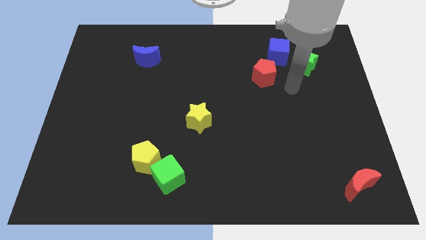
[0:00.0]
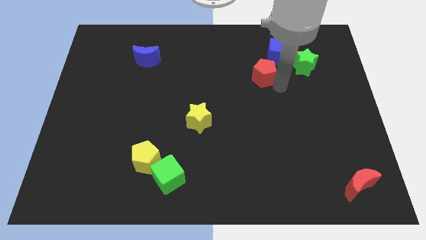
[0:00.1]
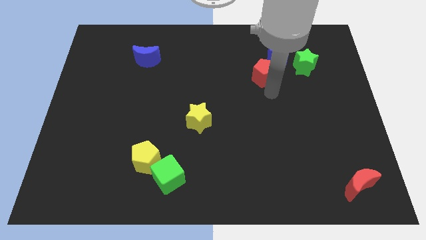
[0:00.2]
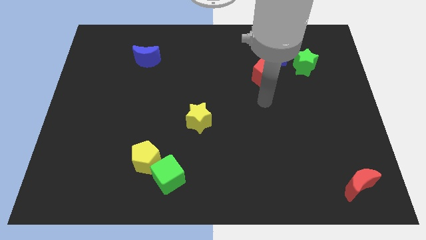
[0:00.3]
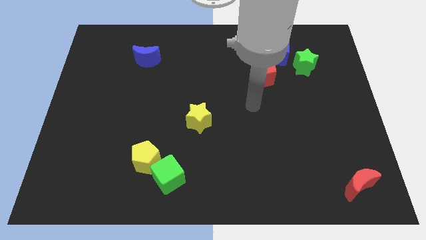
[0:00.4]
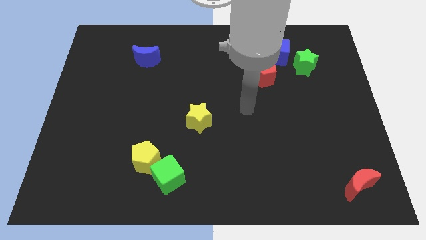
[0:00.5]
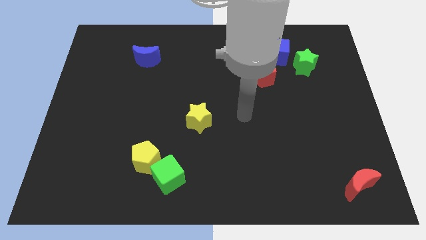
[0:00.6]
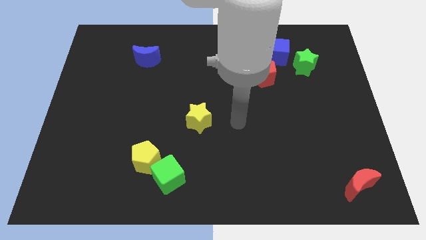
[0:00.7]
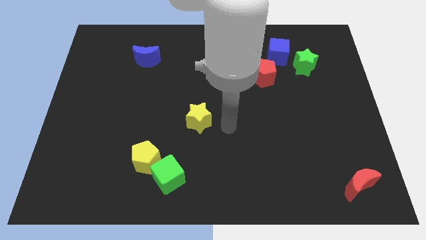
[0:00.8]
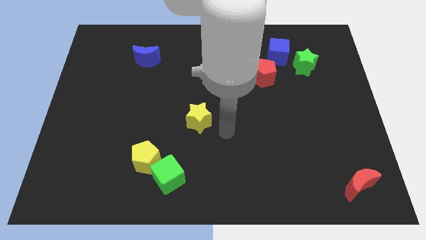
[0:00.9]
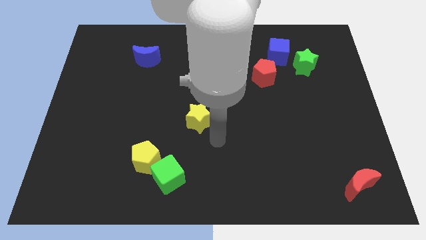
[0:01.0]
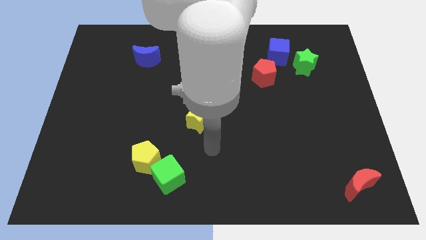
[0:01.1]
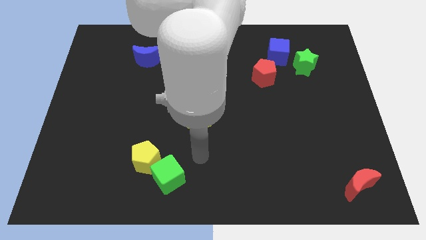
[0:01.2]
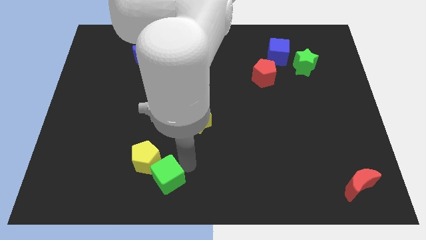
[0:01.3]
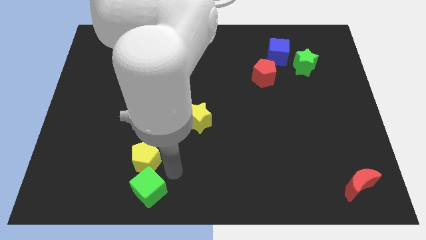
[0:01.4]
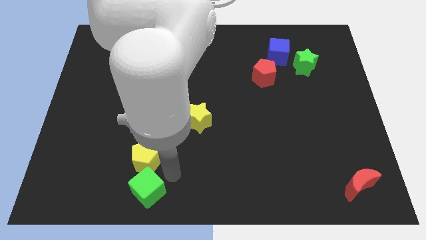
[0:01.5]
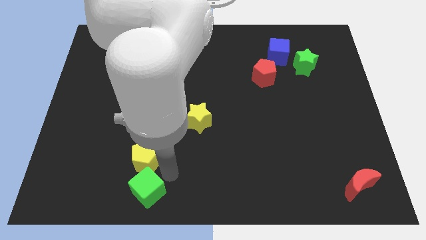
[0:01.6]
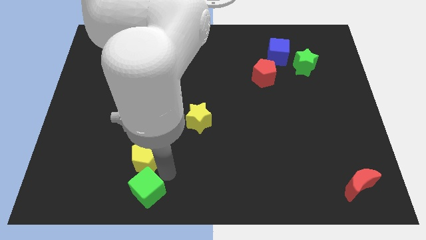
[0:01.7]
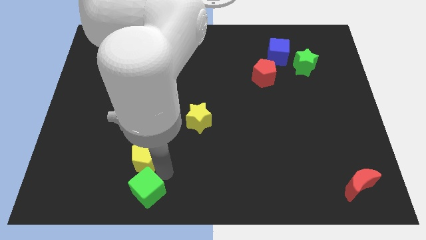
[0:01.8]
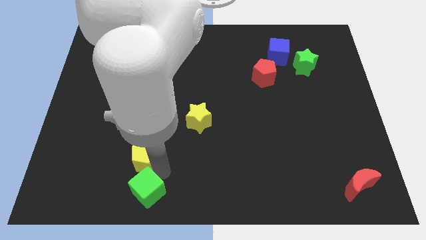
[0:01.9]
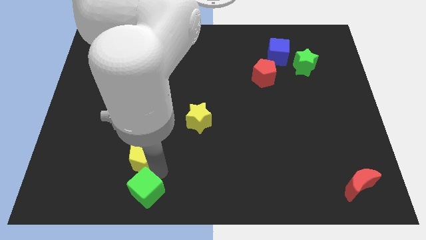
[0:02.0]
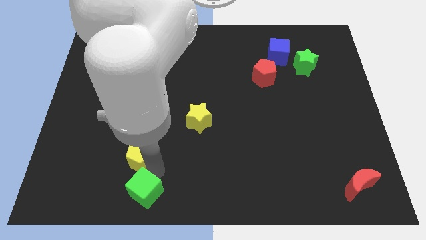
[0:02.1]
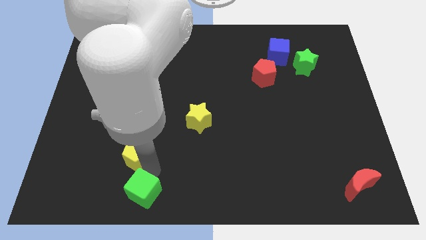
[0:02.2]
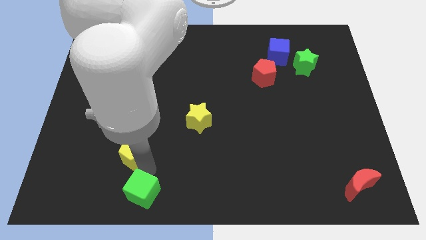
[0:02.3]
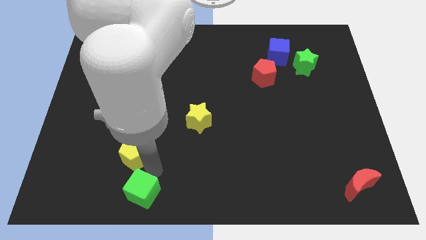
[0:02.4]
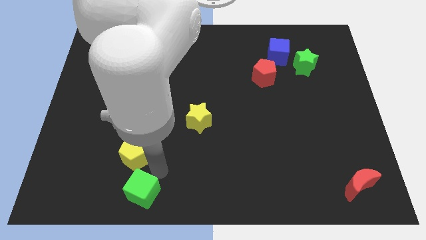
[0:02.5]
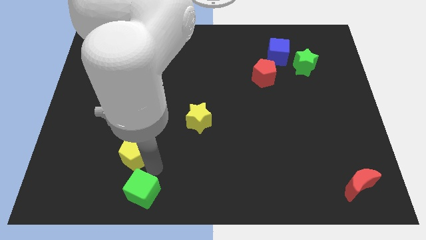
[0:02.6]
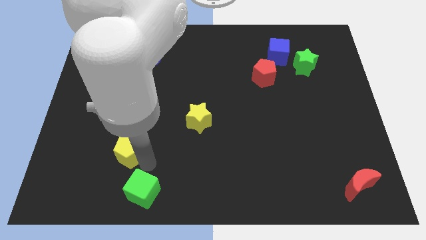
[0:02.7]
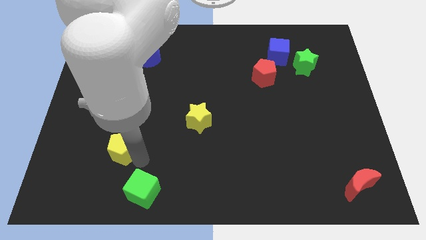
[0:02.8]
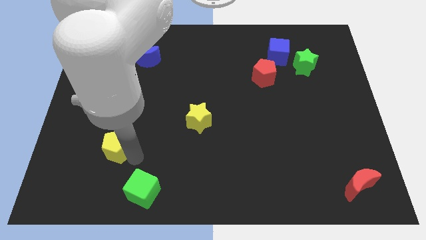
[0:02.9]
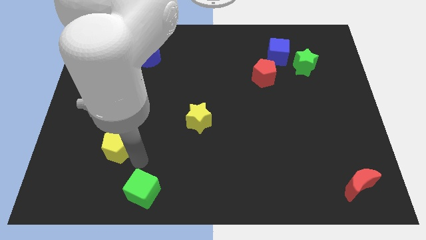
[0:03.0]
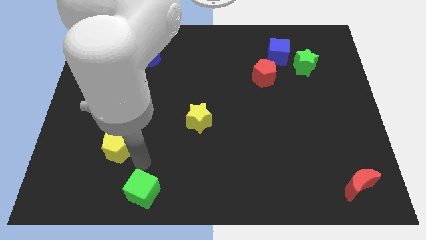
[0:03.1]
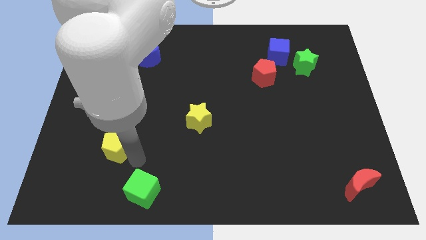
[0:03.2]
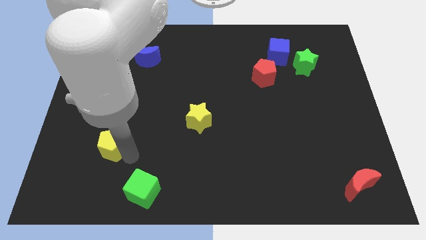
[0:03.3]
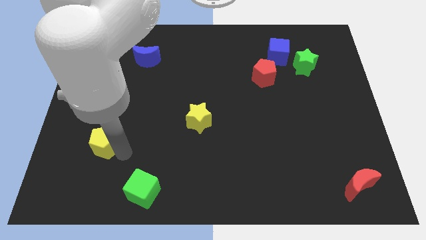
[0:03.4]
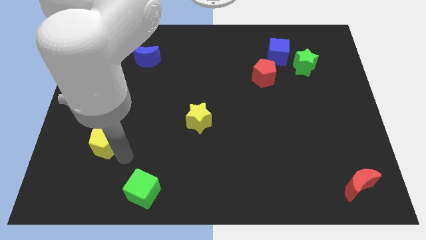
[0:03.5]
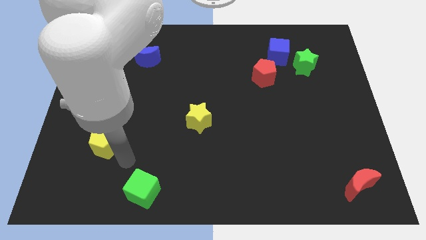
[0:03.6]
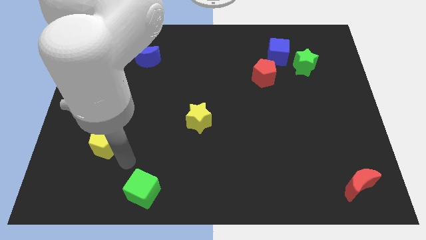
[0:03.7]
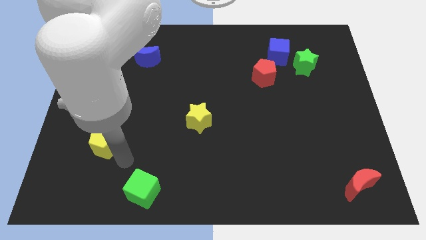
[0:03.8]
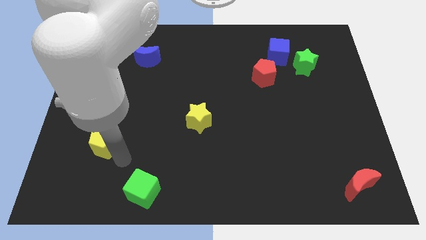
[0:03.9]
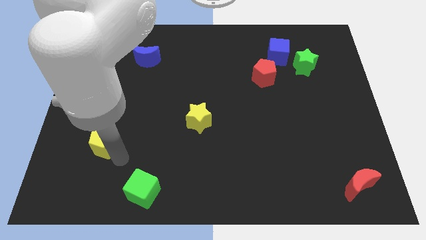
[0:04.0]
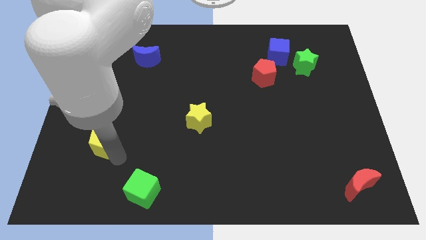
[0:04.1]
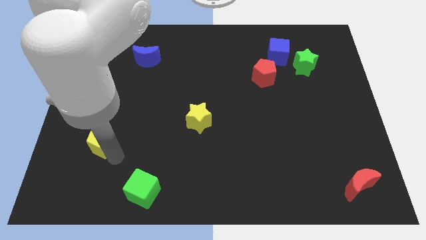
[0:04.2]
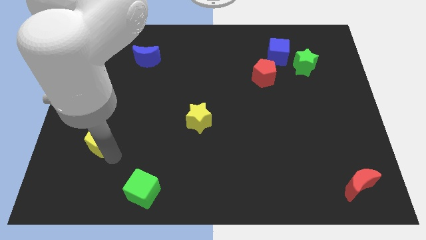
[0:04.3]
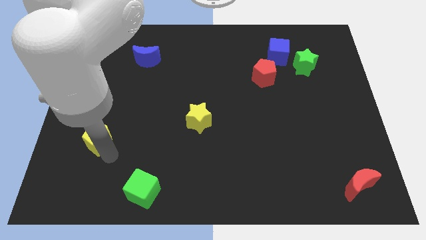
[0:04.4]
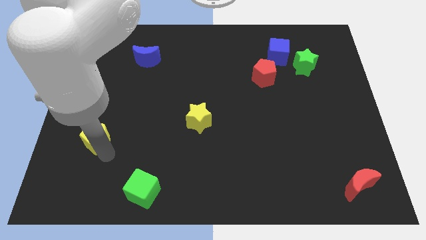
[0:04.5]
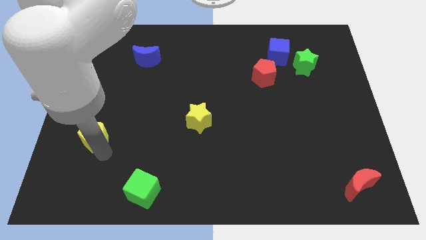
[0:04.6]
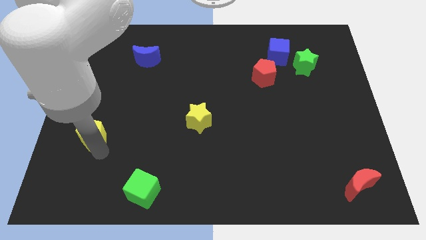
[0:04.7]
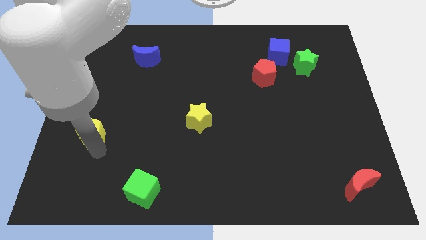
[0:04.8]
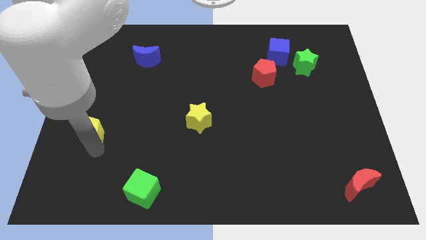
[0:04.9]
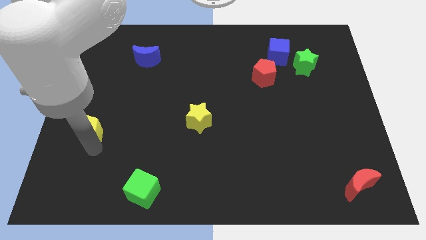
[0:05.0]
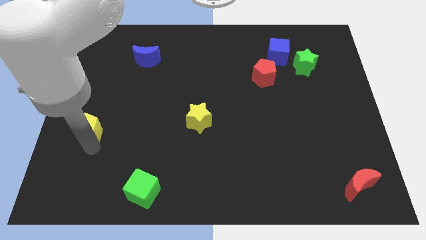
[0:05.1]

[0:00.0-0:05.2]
slide the yellow pentagon to the center left

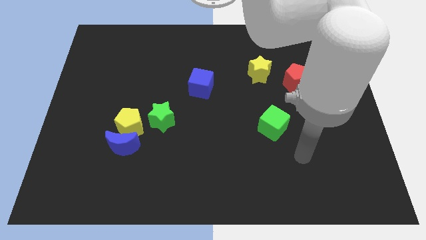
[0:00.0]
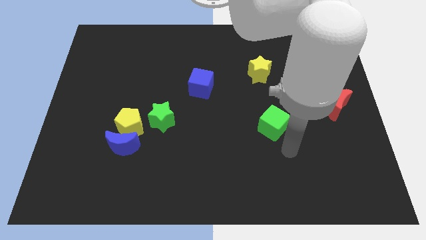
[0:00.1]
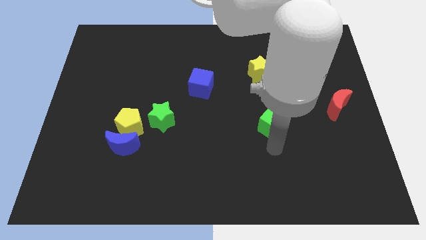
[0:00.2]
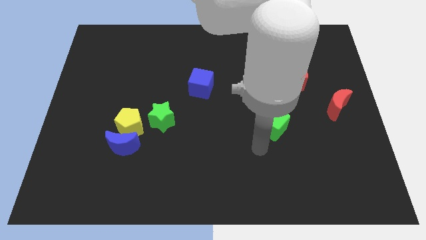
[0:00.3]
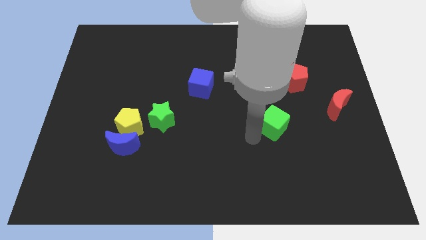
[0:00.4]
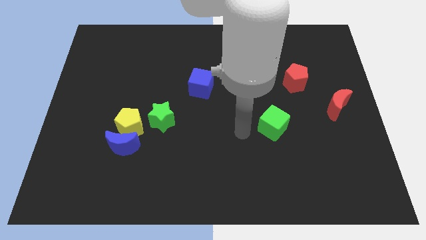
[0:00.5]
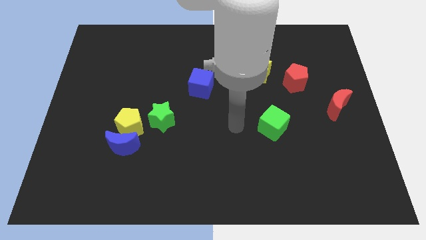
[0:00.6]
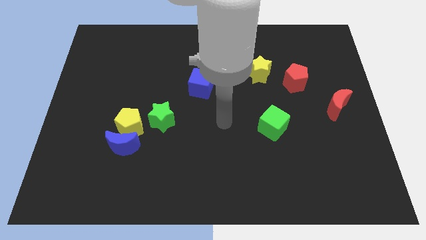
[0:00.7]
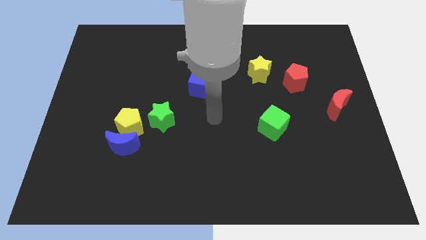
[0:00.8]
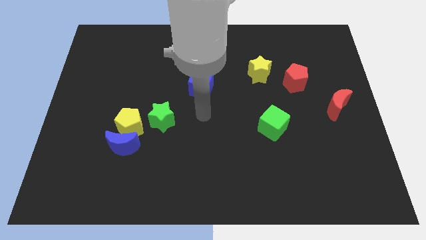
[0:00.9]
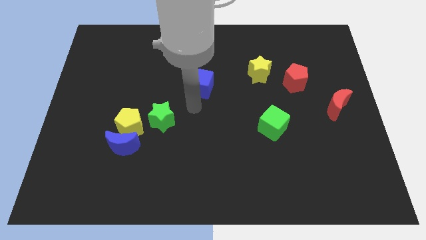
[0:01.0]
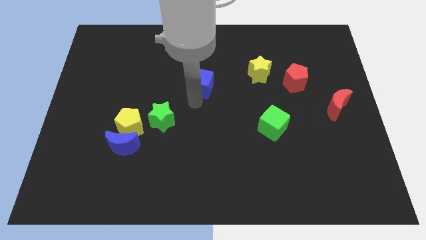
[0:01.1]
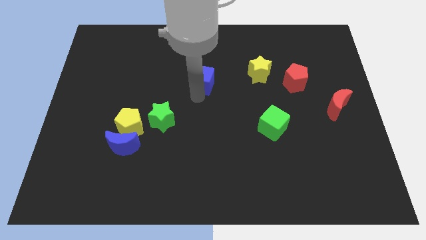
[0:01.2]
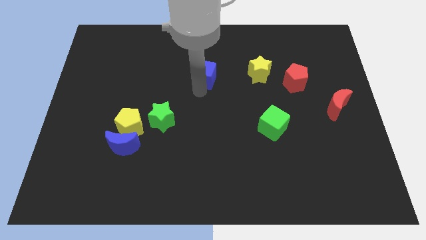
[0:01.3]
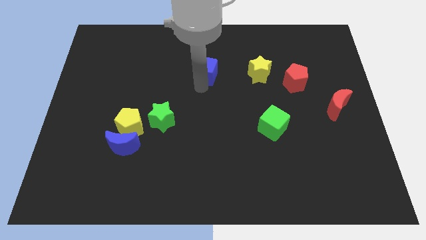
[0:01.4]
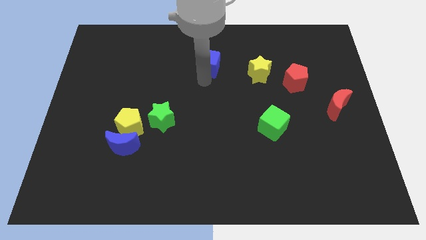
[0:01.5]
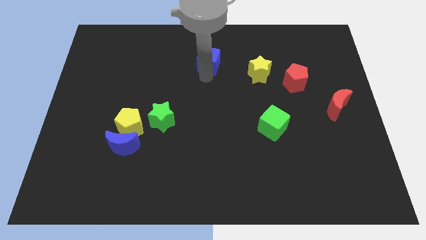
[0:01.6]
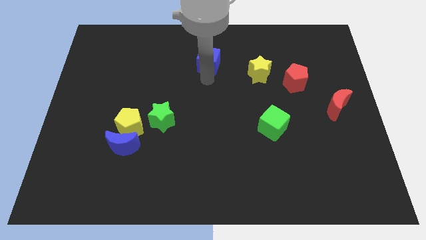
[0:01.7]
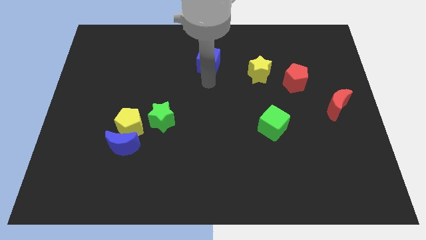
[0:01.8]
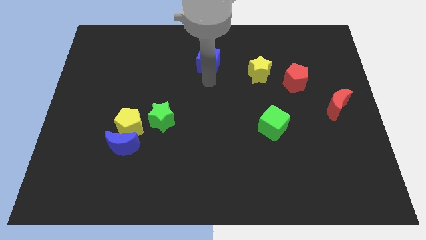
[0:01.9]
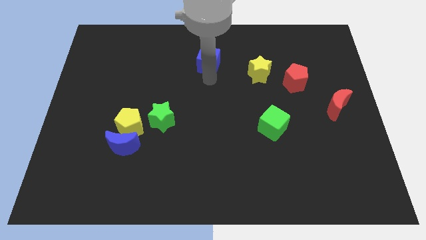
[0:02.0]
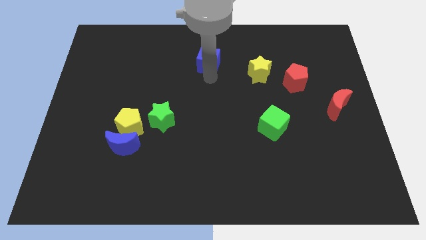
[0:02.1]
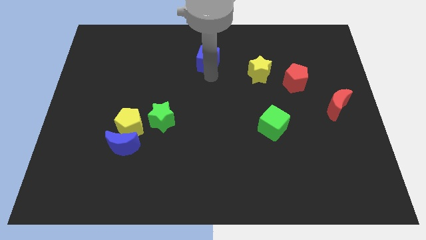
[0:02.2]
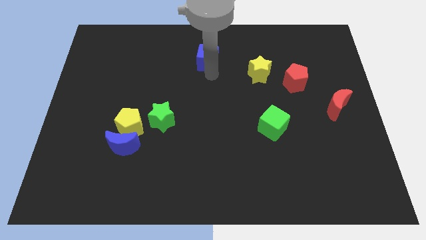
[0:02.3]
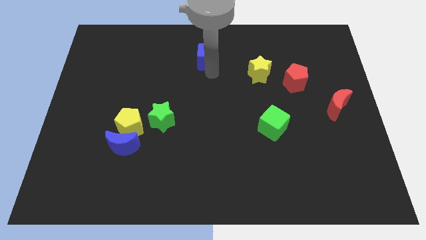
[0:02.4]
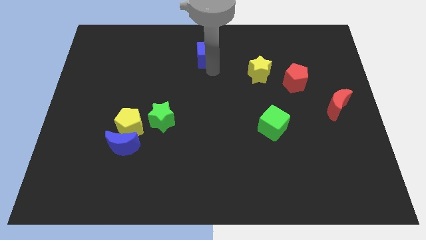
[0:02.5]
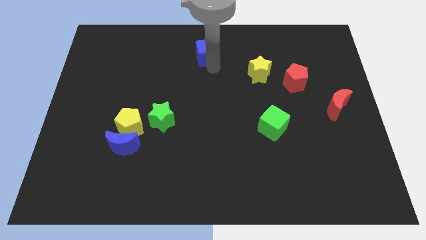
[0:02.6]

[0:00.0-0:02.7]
put the blue cube to the towards your base
